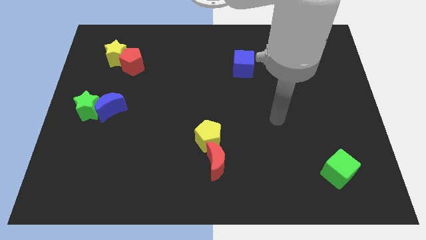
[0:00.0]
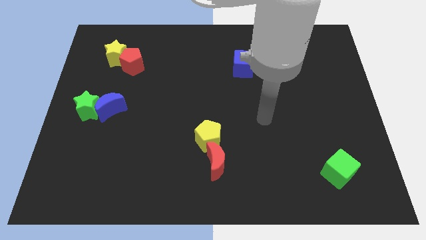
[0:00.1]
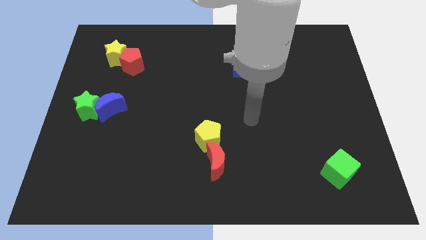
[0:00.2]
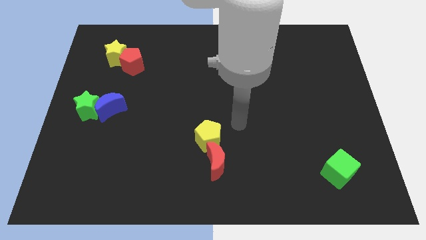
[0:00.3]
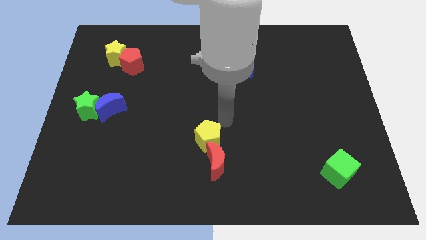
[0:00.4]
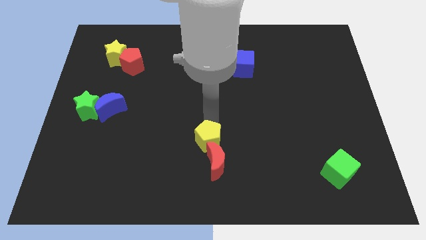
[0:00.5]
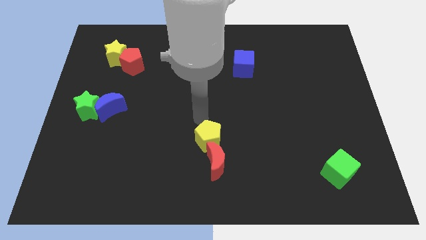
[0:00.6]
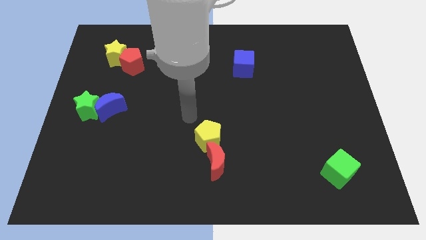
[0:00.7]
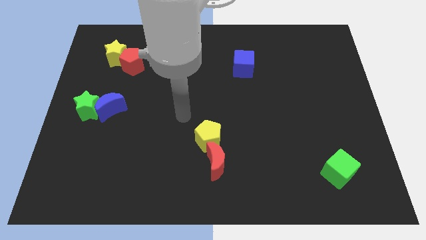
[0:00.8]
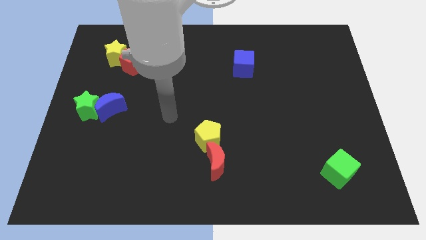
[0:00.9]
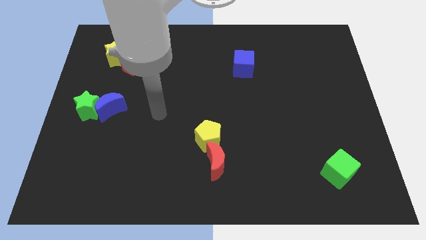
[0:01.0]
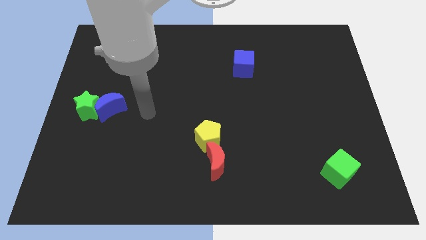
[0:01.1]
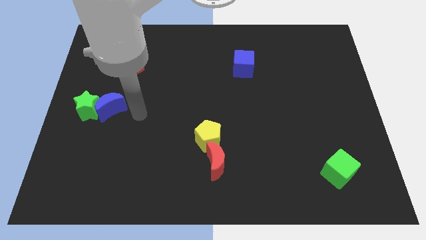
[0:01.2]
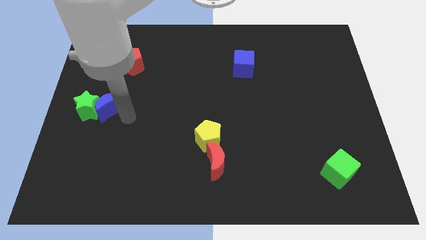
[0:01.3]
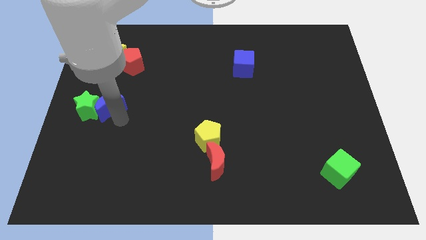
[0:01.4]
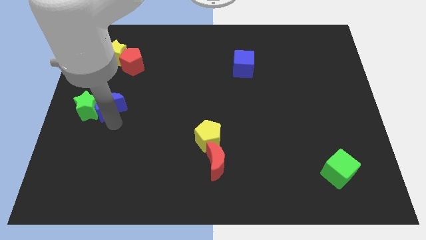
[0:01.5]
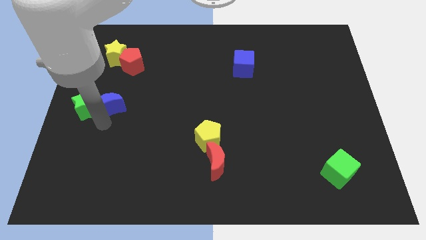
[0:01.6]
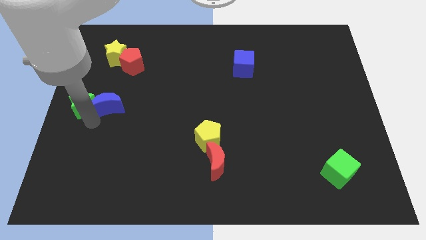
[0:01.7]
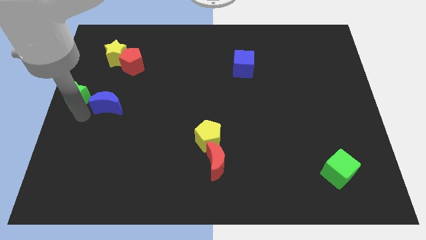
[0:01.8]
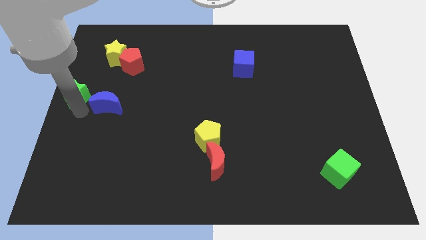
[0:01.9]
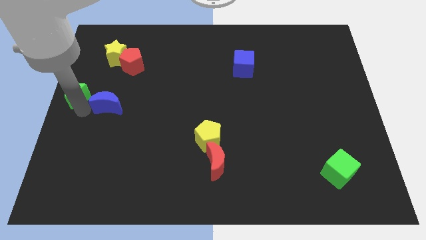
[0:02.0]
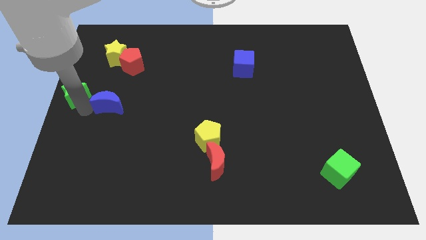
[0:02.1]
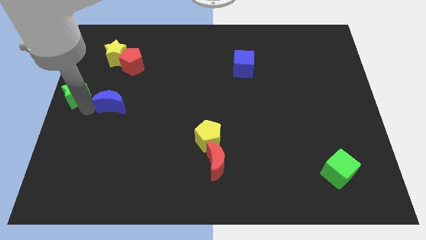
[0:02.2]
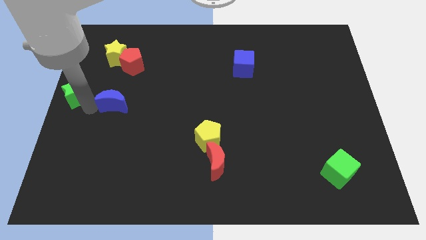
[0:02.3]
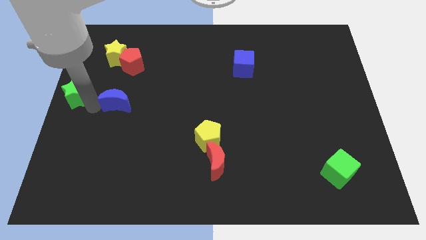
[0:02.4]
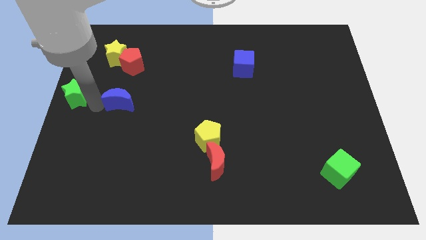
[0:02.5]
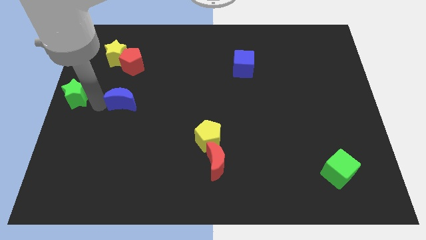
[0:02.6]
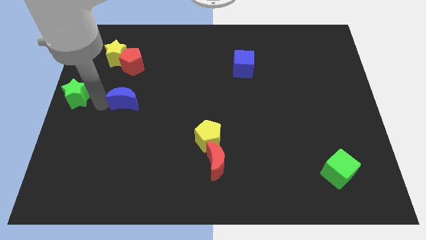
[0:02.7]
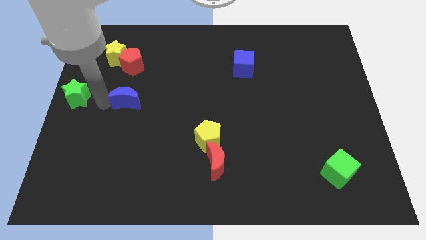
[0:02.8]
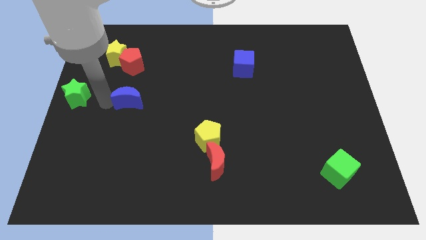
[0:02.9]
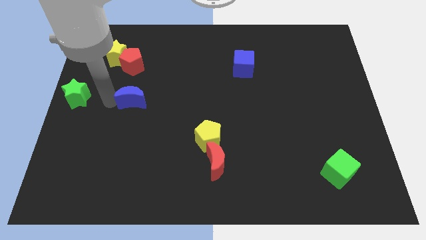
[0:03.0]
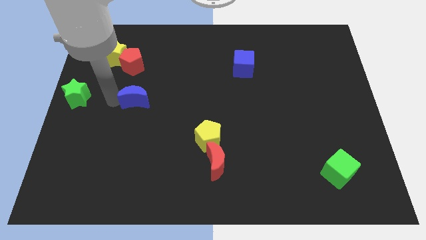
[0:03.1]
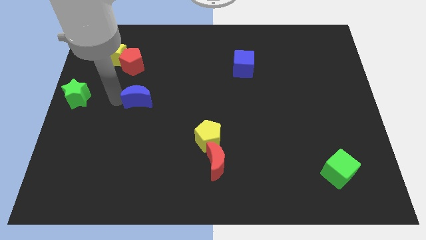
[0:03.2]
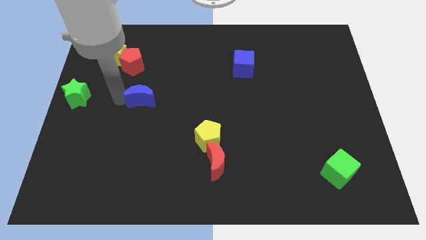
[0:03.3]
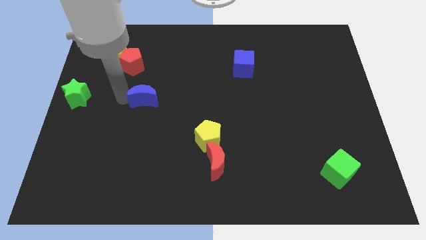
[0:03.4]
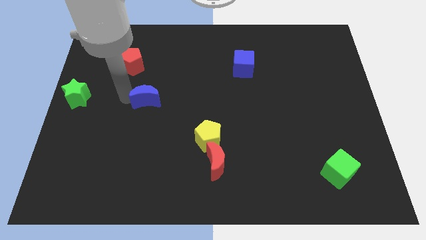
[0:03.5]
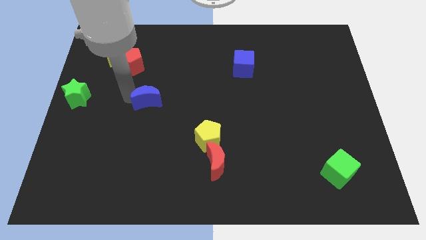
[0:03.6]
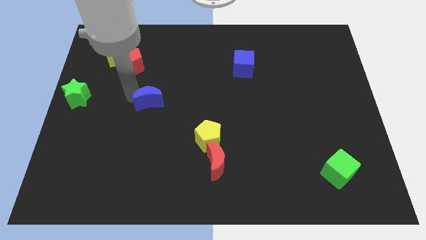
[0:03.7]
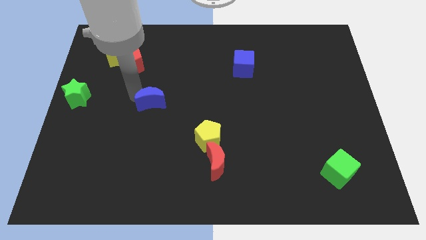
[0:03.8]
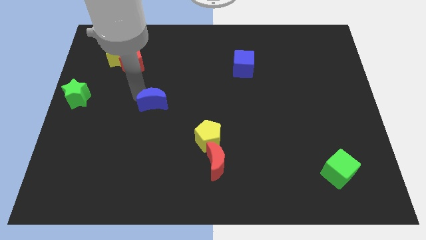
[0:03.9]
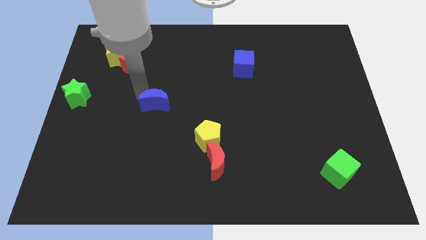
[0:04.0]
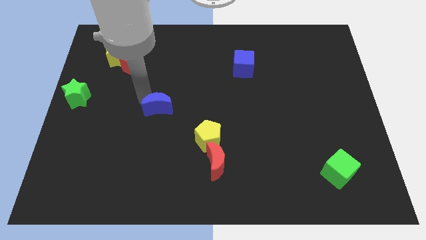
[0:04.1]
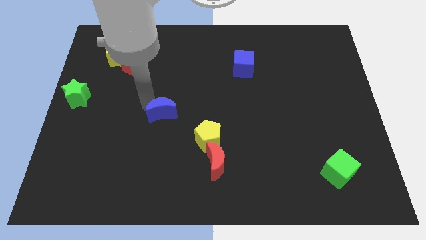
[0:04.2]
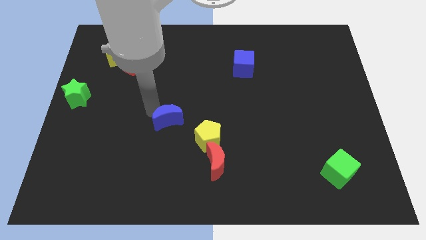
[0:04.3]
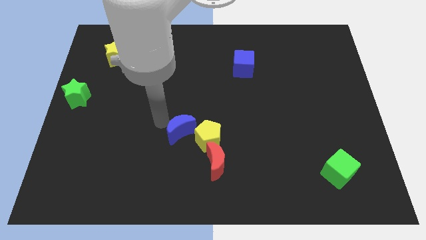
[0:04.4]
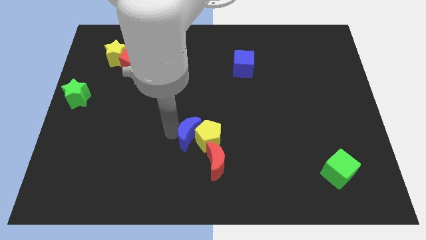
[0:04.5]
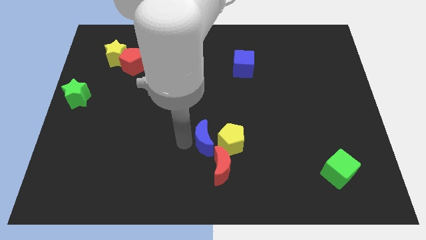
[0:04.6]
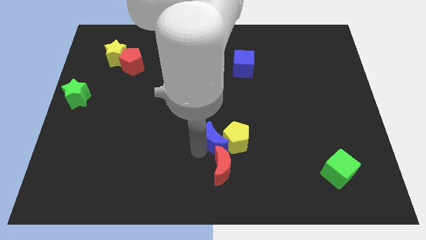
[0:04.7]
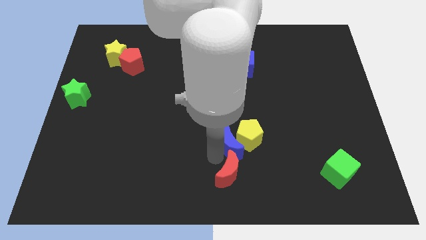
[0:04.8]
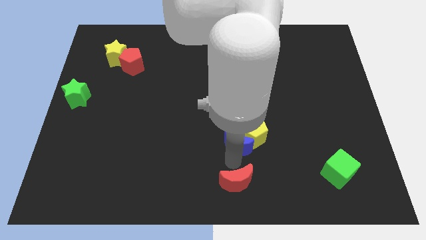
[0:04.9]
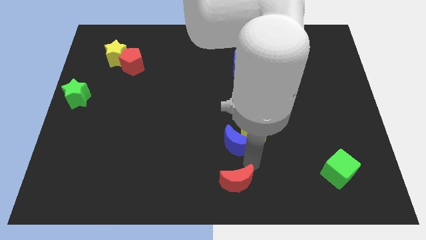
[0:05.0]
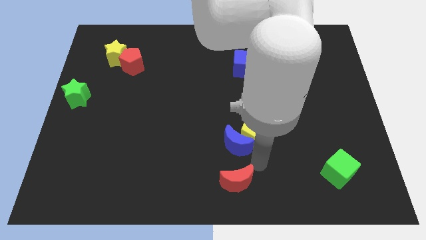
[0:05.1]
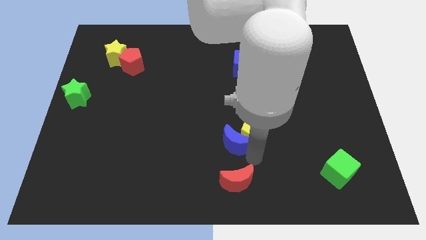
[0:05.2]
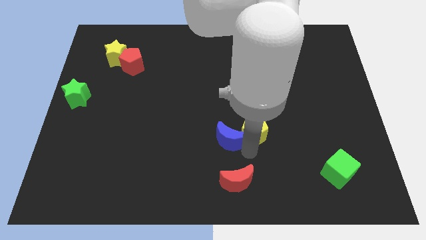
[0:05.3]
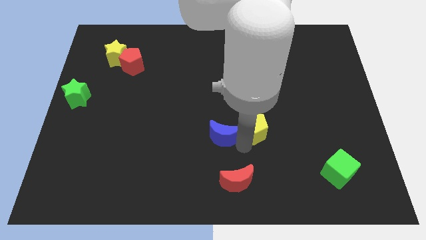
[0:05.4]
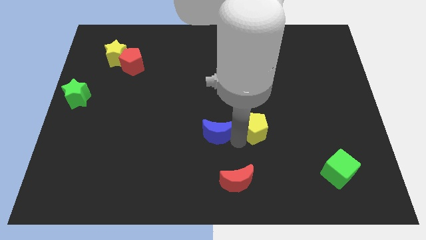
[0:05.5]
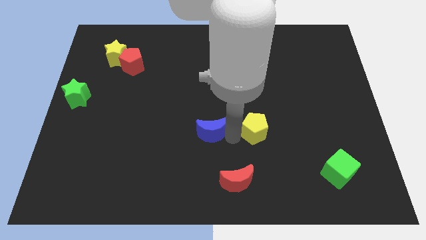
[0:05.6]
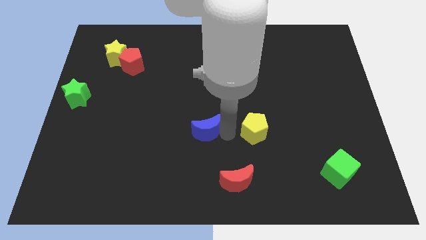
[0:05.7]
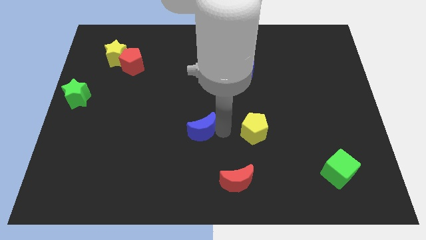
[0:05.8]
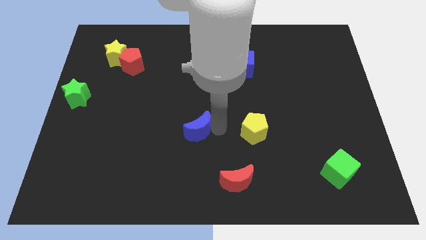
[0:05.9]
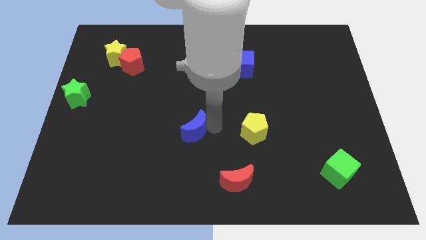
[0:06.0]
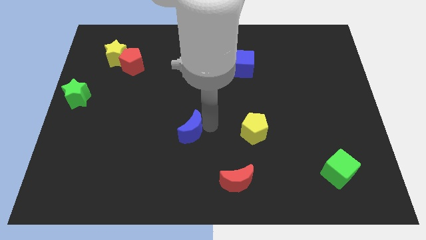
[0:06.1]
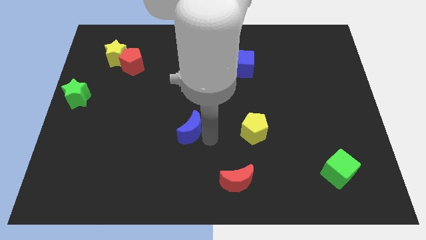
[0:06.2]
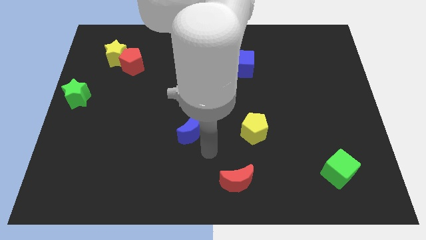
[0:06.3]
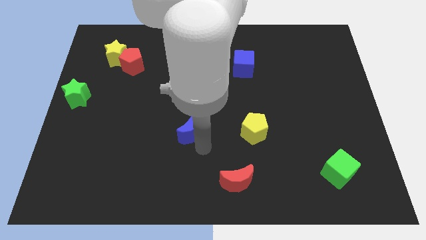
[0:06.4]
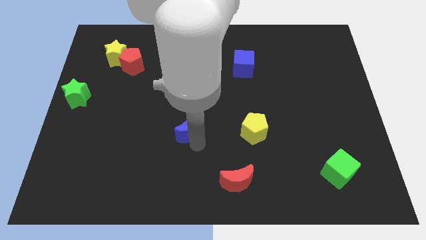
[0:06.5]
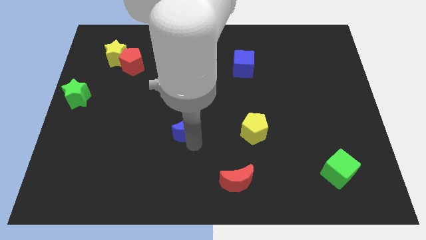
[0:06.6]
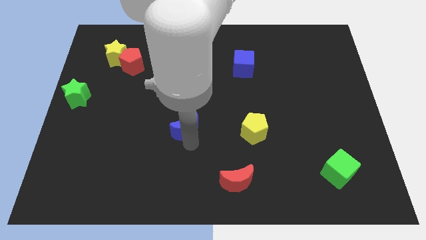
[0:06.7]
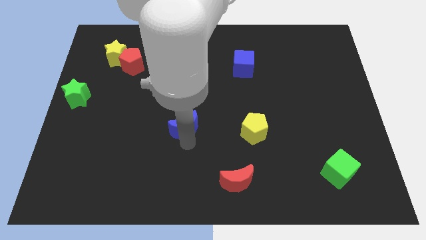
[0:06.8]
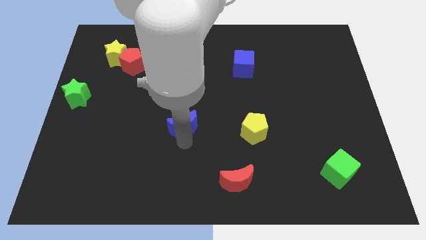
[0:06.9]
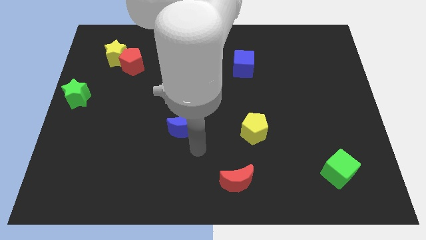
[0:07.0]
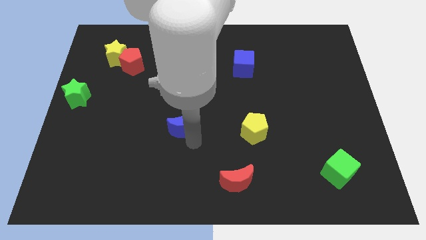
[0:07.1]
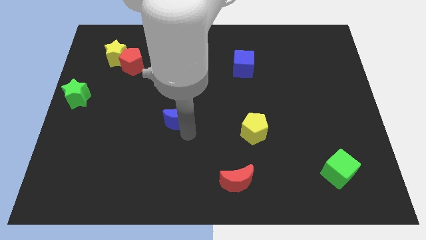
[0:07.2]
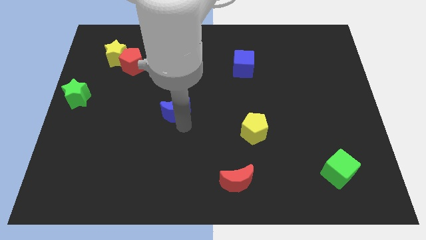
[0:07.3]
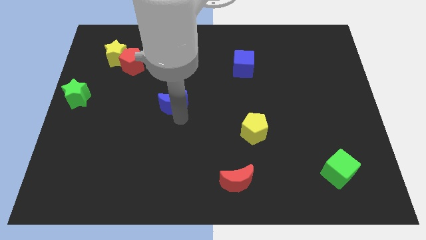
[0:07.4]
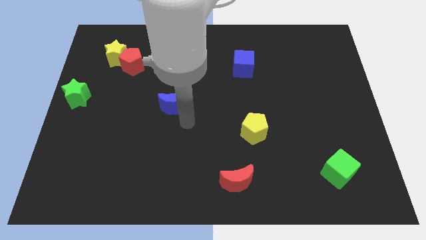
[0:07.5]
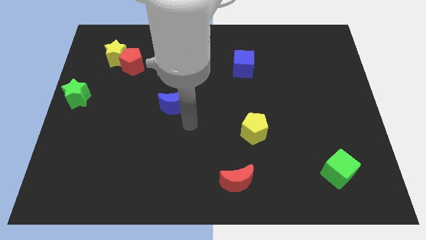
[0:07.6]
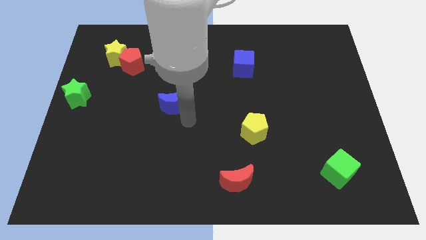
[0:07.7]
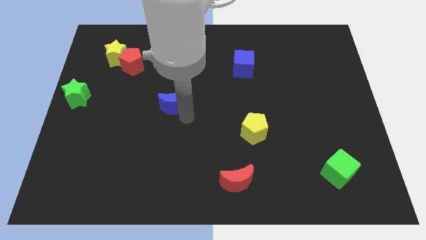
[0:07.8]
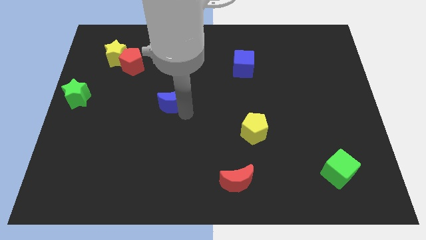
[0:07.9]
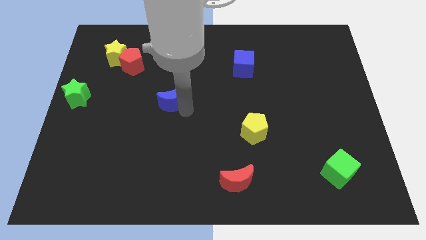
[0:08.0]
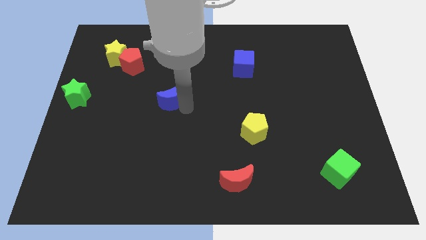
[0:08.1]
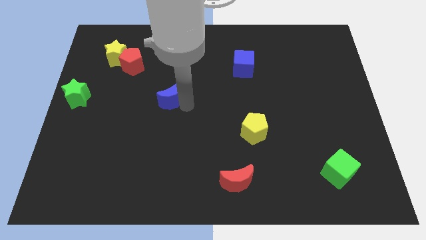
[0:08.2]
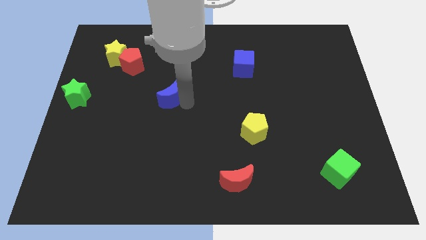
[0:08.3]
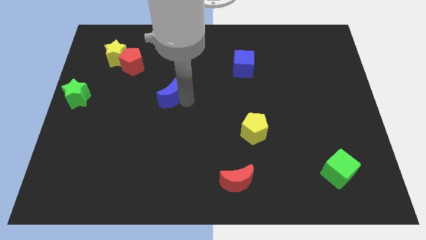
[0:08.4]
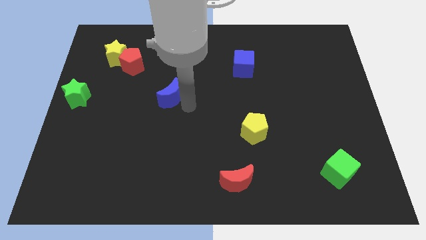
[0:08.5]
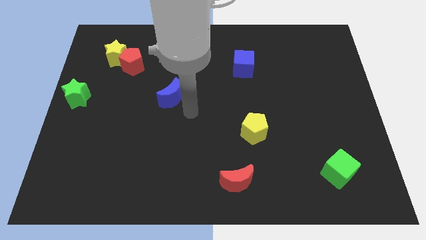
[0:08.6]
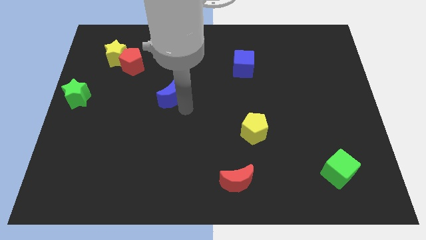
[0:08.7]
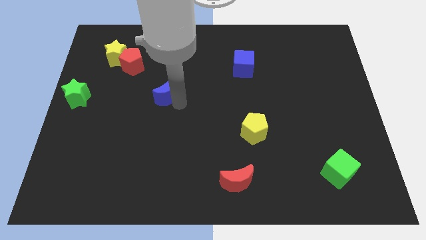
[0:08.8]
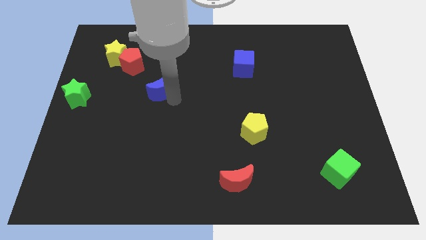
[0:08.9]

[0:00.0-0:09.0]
put the blue moon to the bottom right side of the red pentagon
